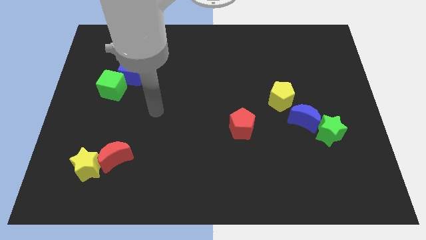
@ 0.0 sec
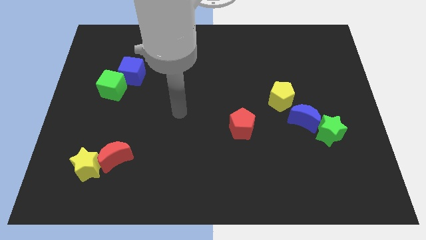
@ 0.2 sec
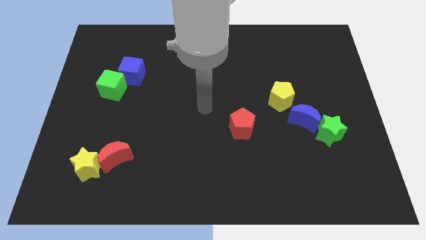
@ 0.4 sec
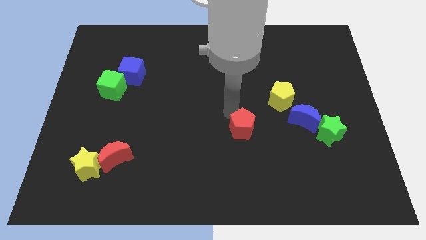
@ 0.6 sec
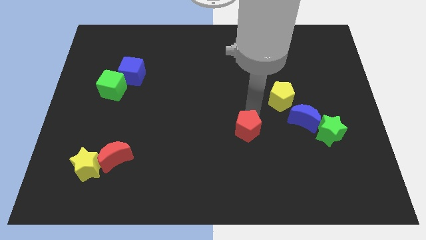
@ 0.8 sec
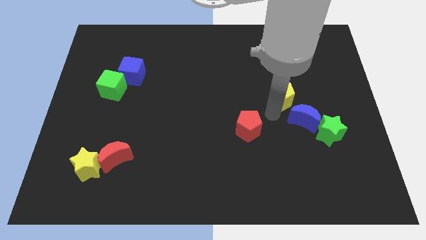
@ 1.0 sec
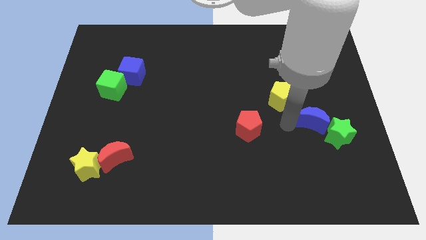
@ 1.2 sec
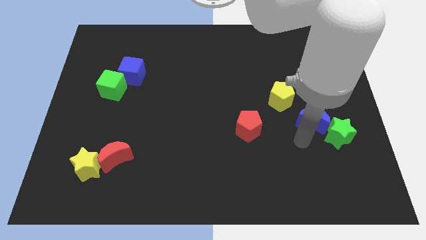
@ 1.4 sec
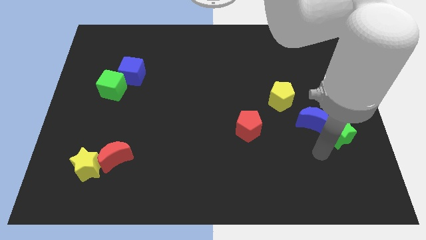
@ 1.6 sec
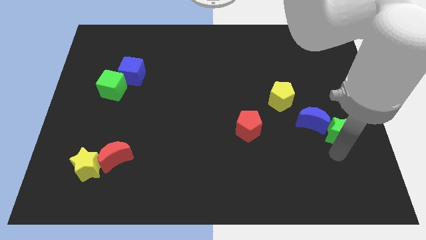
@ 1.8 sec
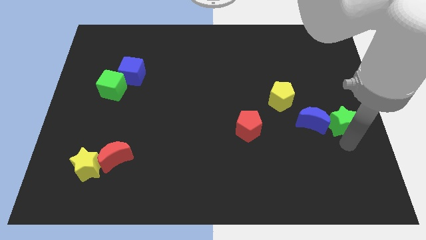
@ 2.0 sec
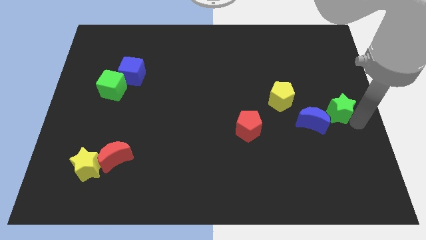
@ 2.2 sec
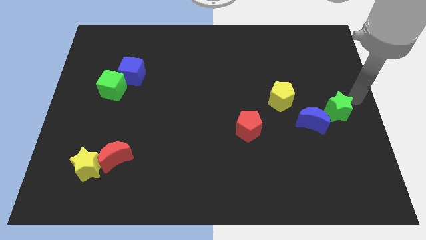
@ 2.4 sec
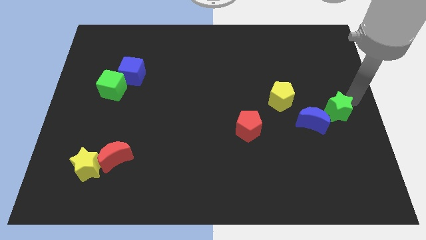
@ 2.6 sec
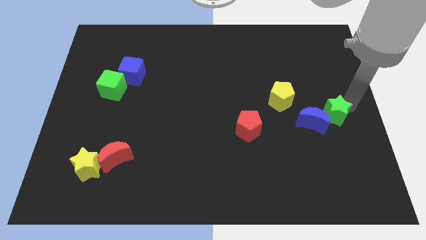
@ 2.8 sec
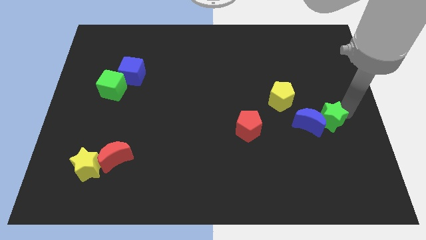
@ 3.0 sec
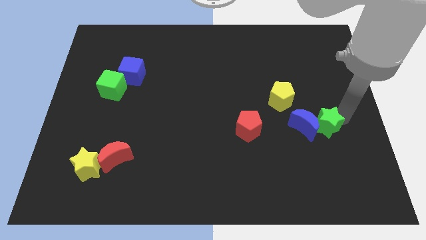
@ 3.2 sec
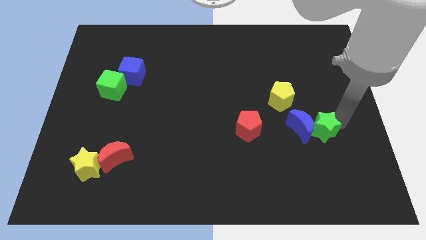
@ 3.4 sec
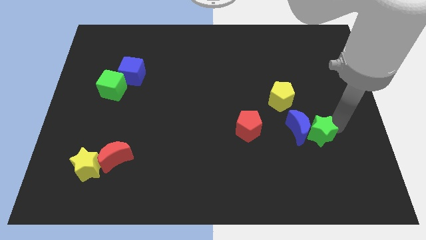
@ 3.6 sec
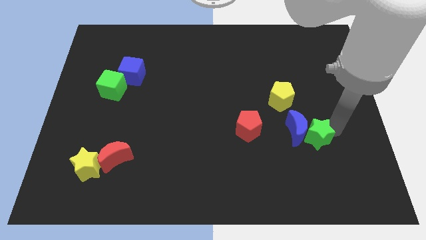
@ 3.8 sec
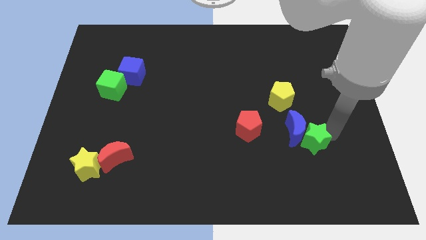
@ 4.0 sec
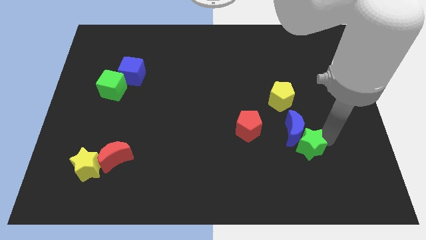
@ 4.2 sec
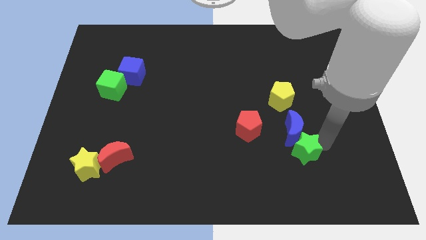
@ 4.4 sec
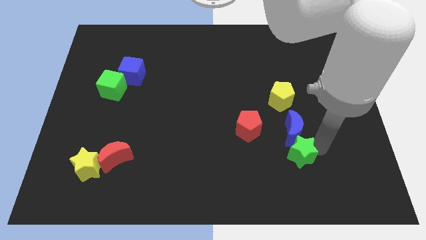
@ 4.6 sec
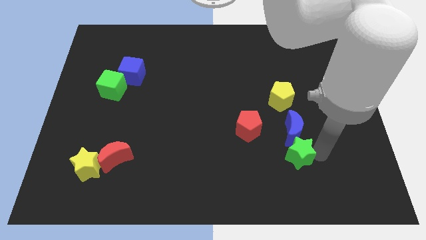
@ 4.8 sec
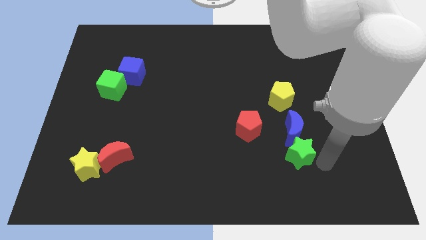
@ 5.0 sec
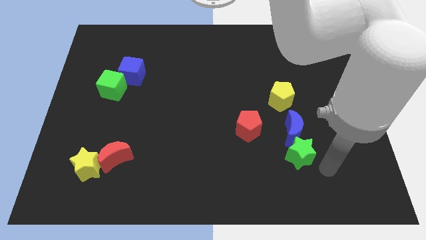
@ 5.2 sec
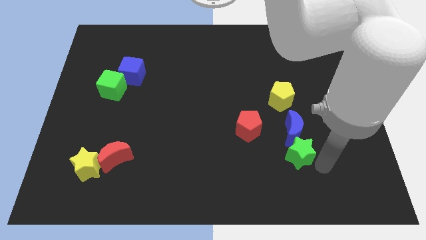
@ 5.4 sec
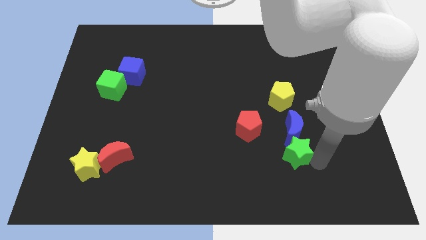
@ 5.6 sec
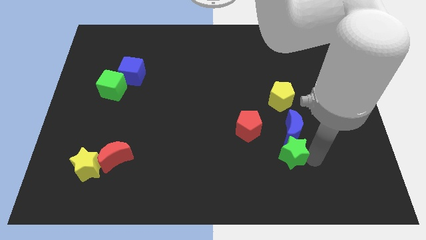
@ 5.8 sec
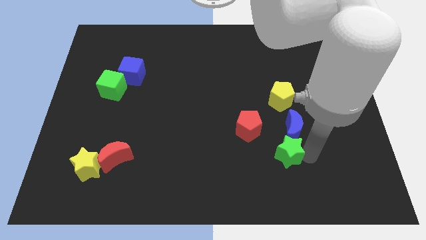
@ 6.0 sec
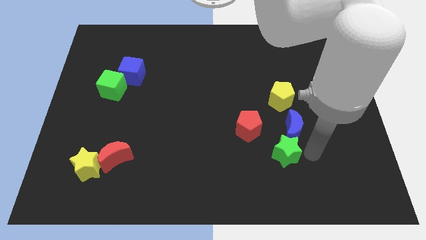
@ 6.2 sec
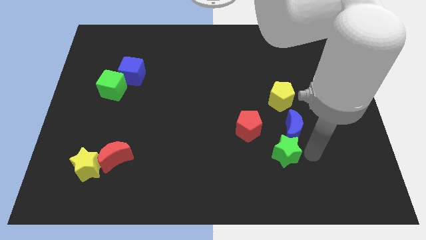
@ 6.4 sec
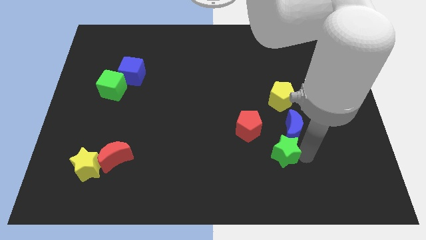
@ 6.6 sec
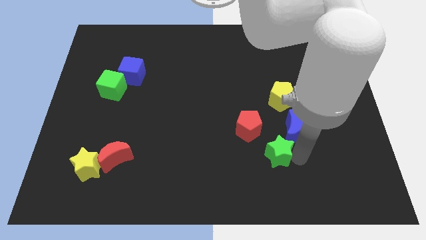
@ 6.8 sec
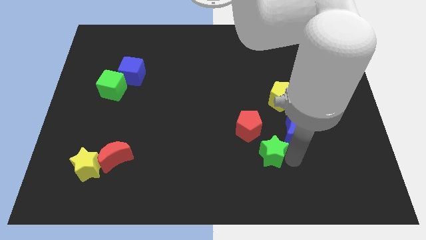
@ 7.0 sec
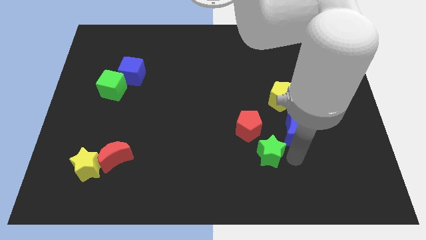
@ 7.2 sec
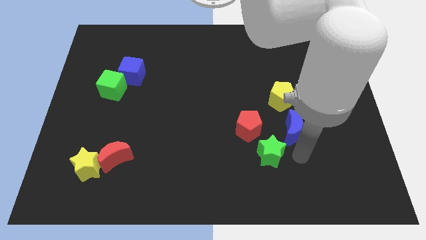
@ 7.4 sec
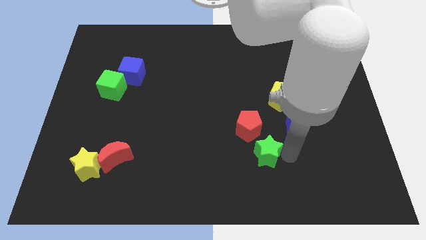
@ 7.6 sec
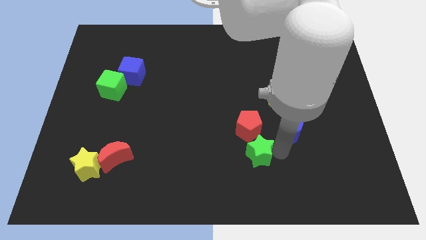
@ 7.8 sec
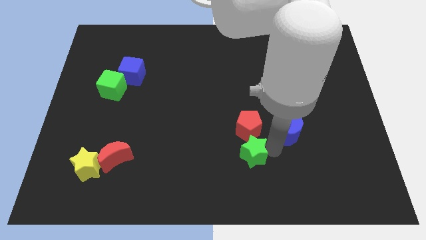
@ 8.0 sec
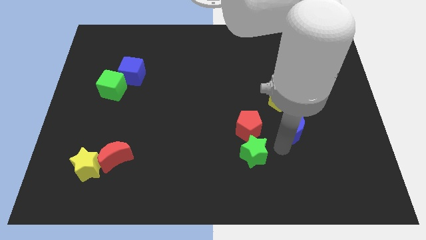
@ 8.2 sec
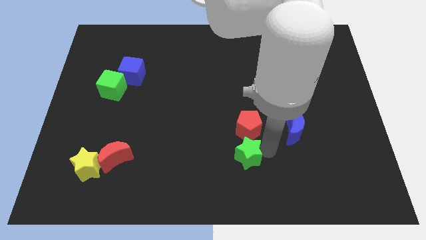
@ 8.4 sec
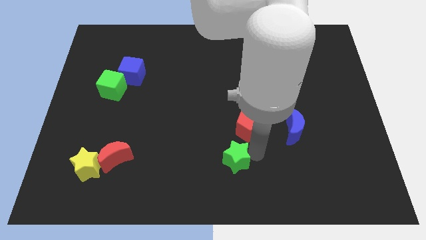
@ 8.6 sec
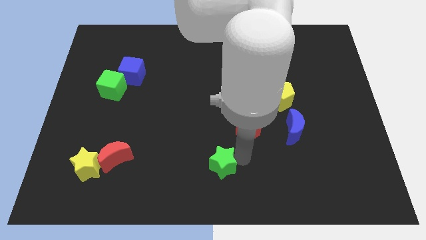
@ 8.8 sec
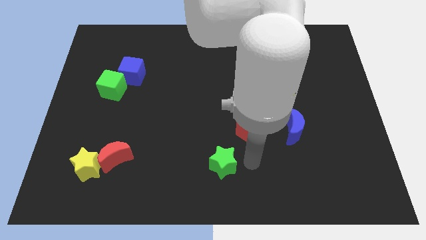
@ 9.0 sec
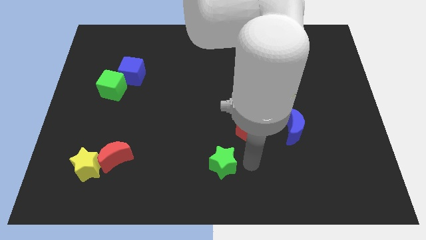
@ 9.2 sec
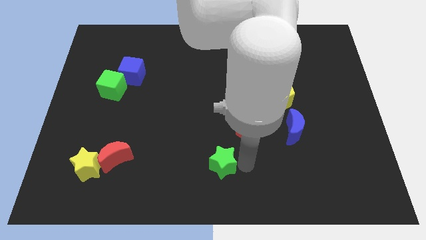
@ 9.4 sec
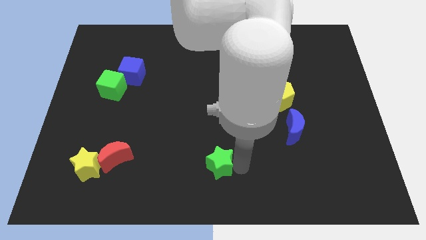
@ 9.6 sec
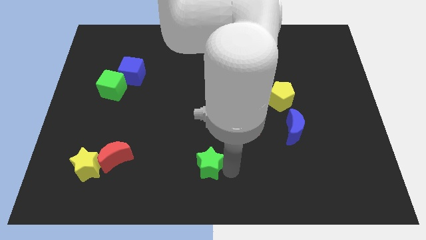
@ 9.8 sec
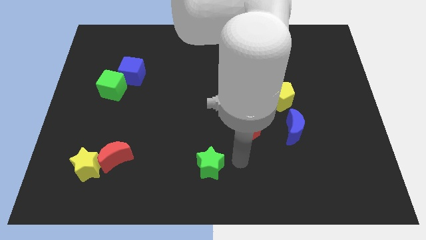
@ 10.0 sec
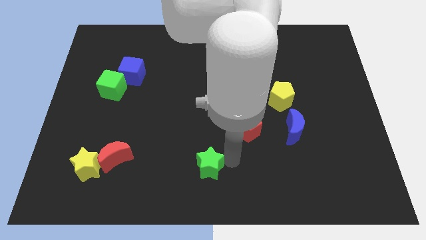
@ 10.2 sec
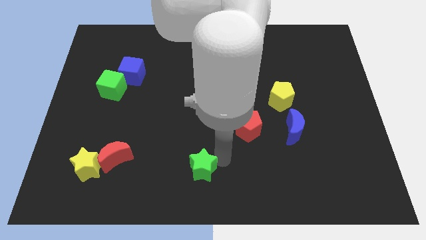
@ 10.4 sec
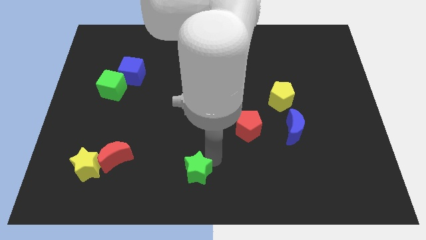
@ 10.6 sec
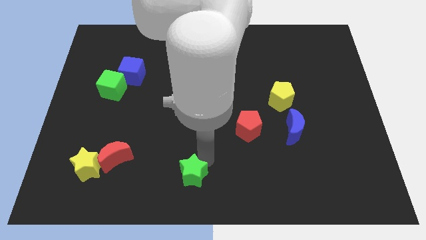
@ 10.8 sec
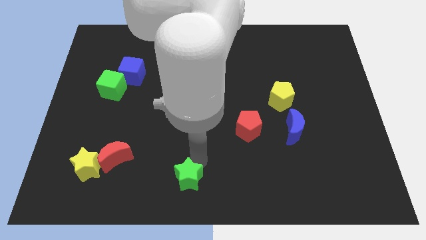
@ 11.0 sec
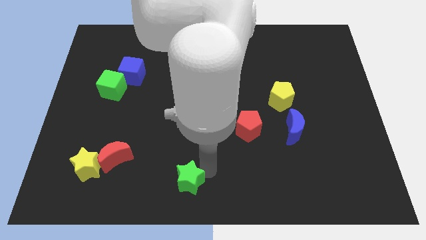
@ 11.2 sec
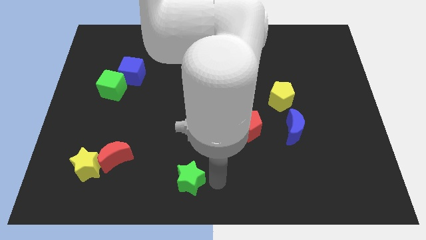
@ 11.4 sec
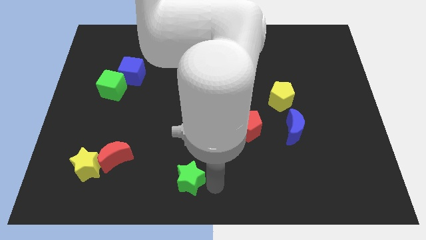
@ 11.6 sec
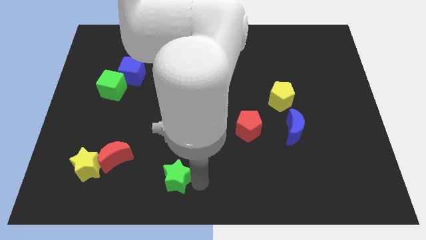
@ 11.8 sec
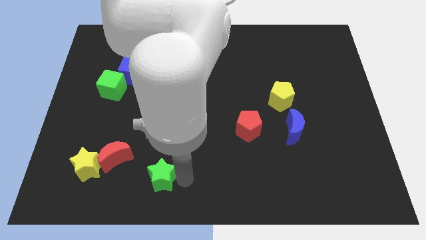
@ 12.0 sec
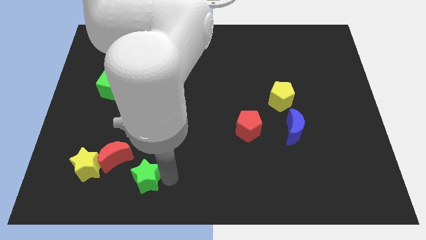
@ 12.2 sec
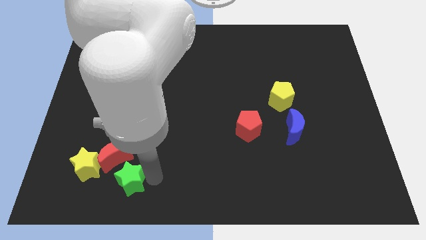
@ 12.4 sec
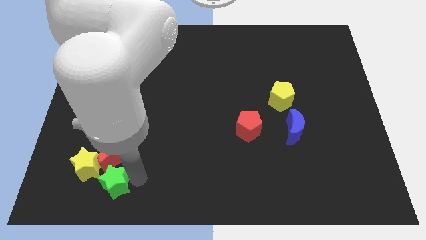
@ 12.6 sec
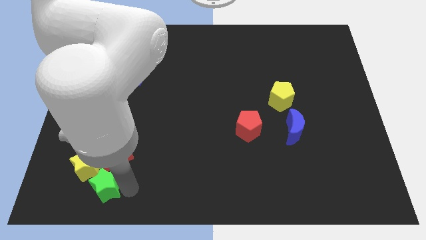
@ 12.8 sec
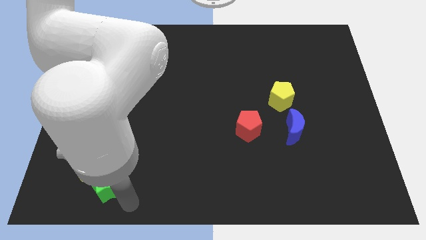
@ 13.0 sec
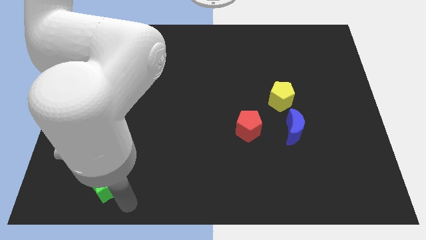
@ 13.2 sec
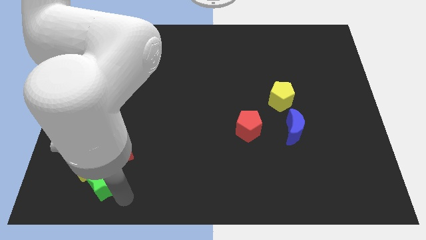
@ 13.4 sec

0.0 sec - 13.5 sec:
put the green star to the yellow star

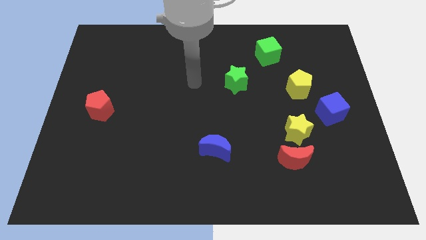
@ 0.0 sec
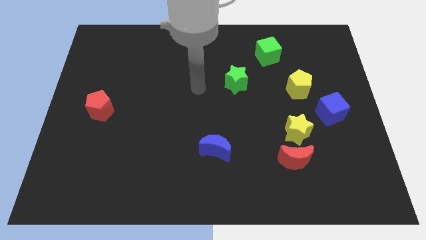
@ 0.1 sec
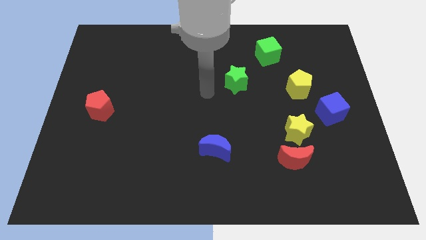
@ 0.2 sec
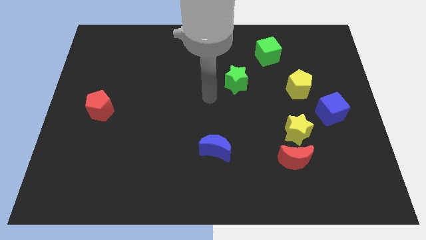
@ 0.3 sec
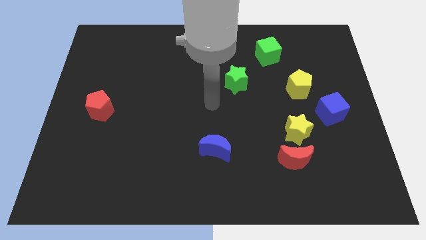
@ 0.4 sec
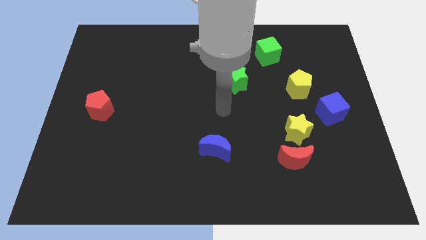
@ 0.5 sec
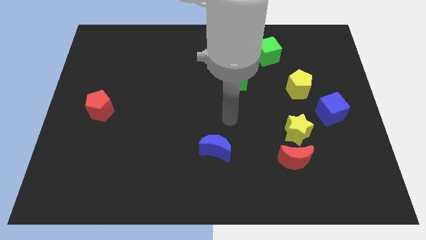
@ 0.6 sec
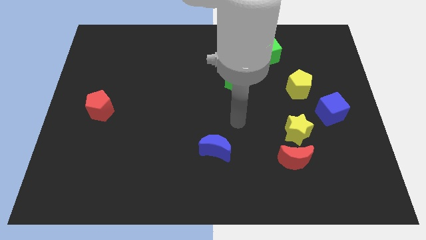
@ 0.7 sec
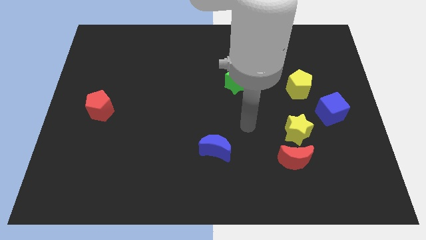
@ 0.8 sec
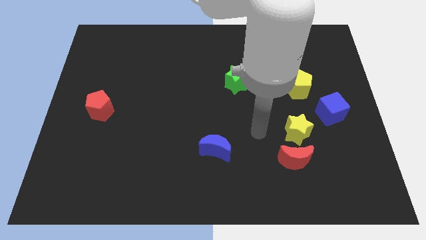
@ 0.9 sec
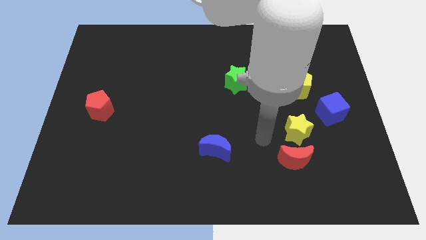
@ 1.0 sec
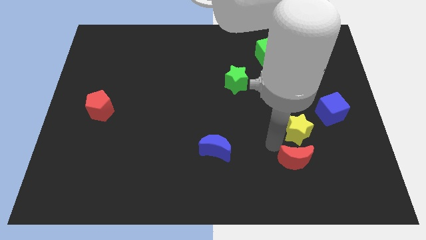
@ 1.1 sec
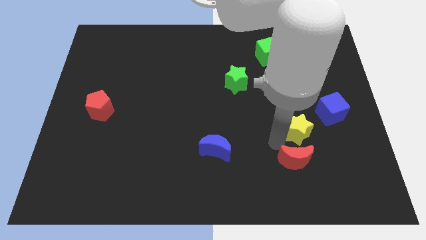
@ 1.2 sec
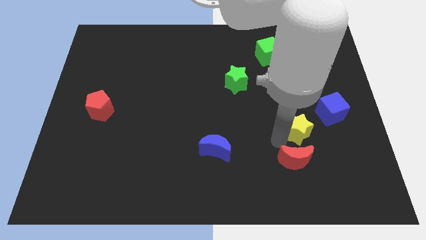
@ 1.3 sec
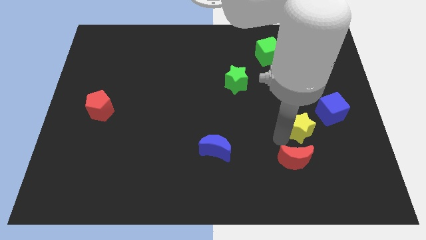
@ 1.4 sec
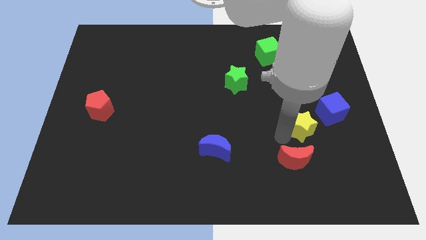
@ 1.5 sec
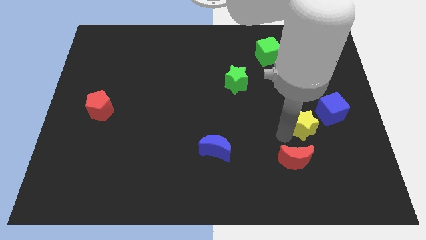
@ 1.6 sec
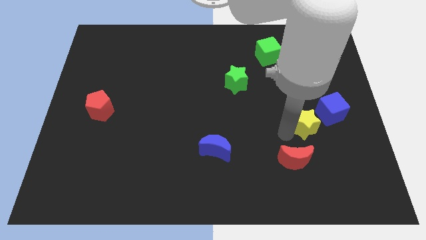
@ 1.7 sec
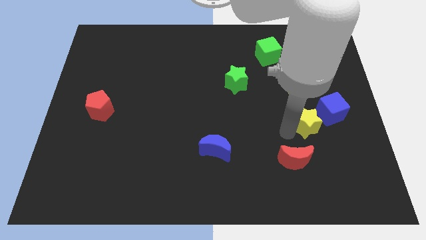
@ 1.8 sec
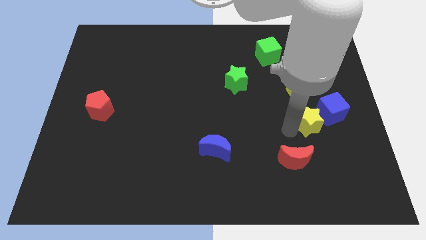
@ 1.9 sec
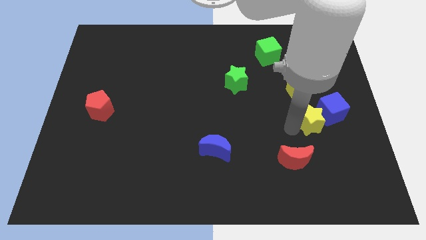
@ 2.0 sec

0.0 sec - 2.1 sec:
push the yellow star towards the blue cube
